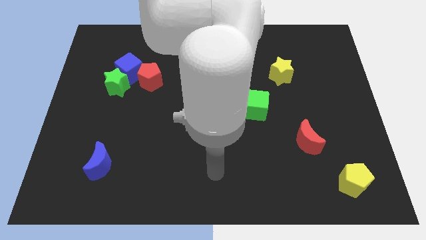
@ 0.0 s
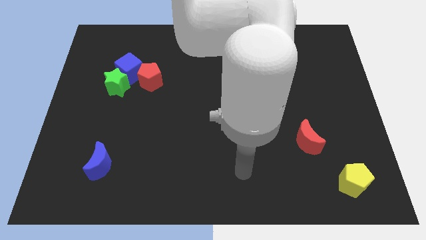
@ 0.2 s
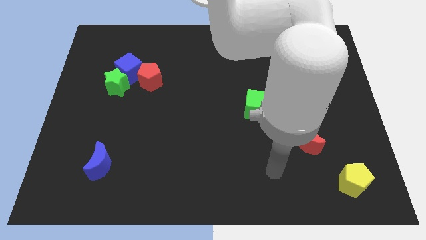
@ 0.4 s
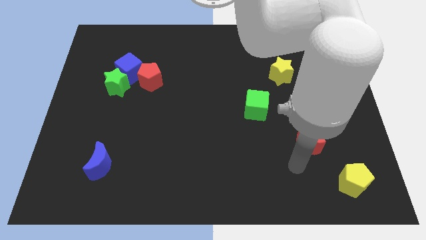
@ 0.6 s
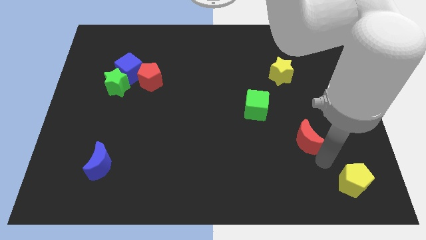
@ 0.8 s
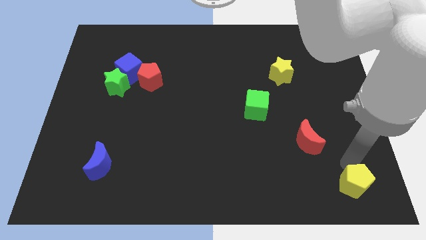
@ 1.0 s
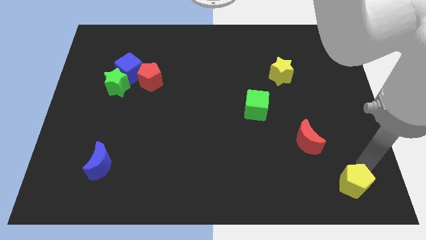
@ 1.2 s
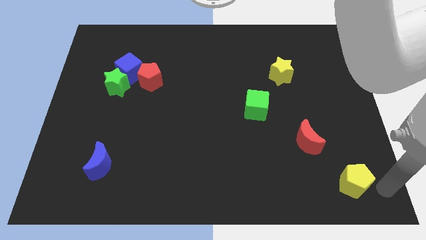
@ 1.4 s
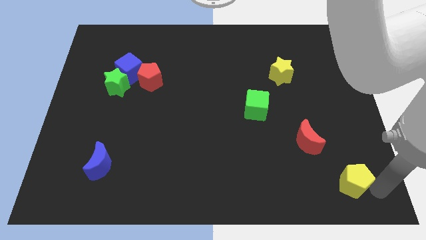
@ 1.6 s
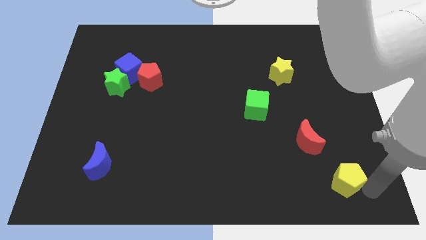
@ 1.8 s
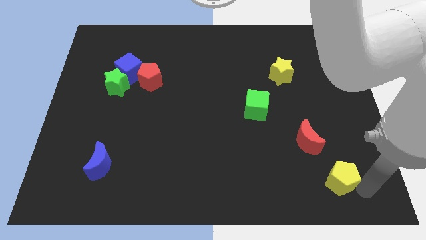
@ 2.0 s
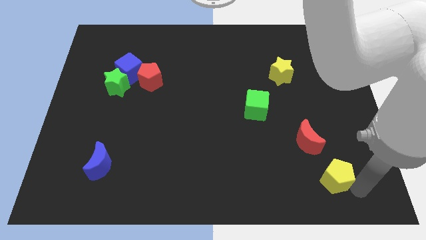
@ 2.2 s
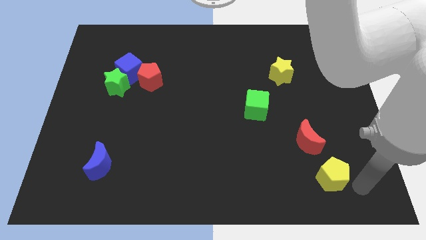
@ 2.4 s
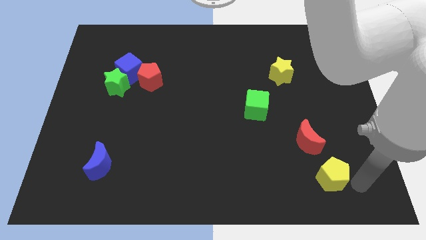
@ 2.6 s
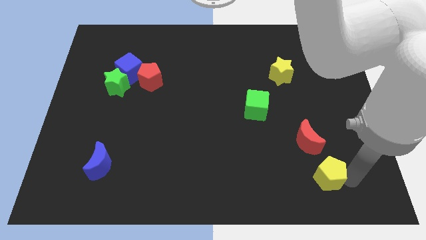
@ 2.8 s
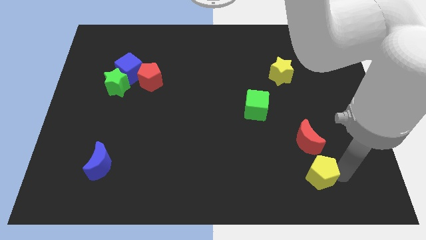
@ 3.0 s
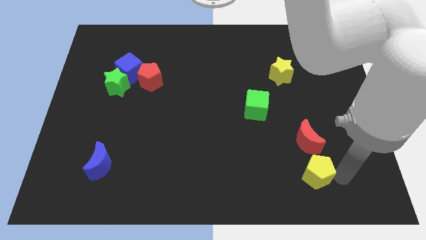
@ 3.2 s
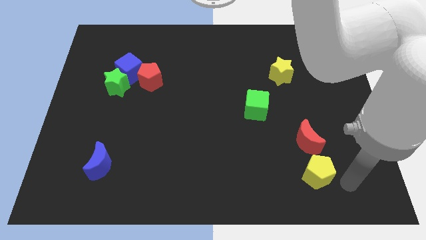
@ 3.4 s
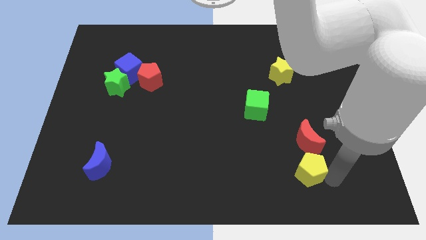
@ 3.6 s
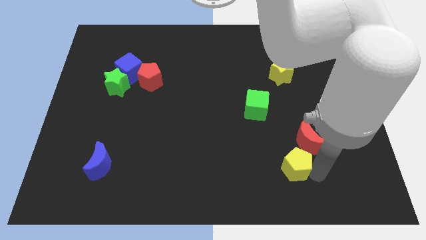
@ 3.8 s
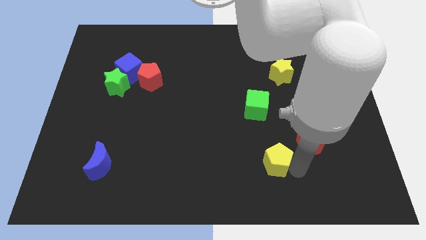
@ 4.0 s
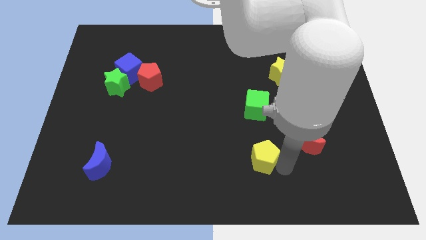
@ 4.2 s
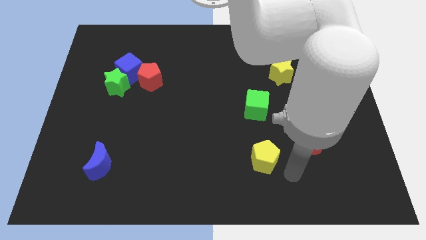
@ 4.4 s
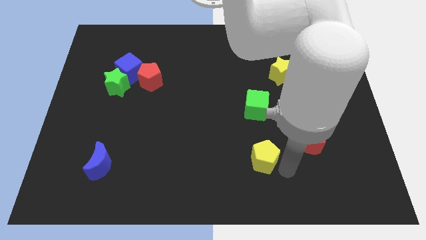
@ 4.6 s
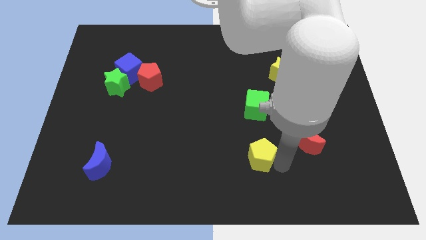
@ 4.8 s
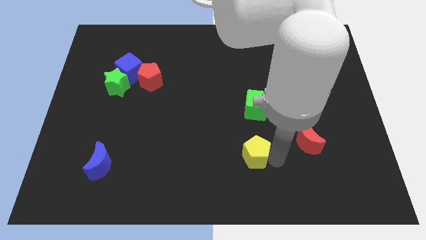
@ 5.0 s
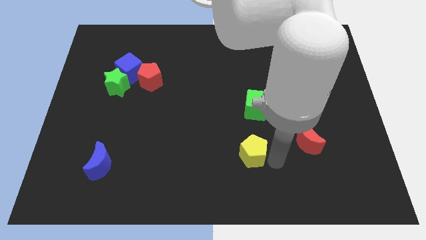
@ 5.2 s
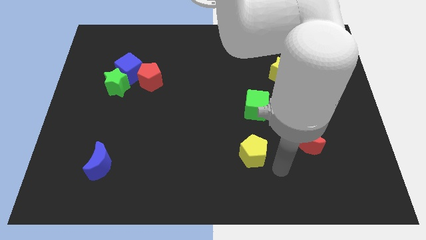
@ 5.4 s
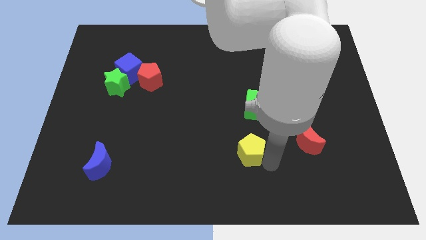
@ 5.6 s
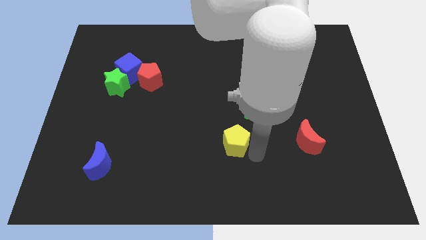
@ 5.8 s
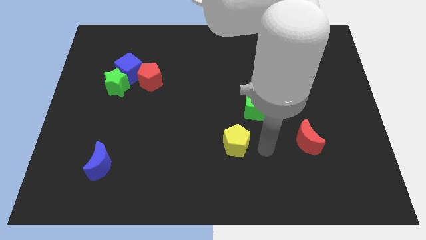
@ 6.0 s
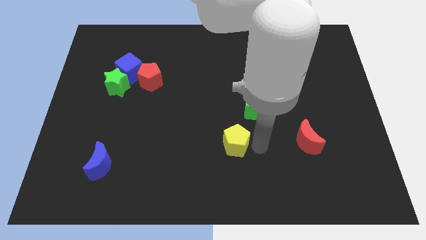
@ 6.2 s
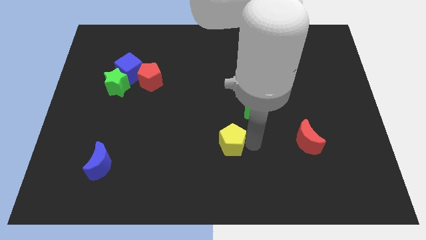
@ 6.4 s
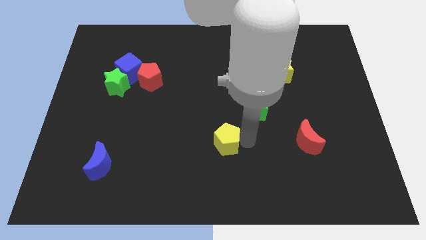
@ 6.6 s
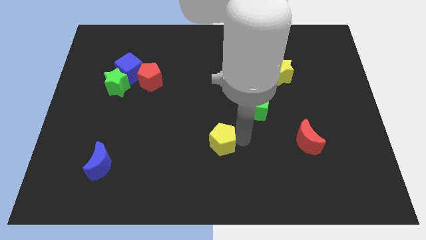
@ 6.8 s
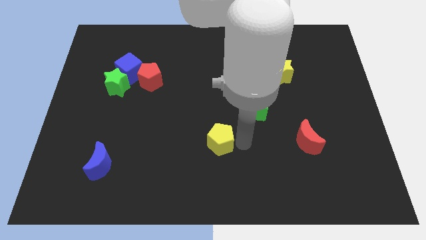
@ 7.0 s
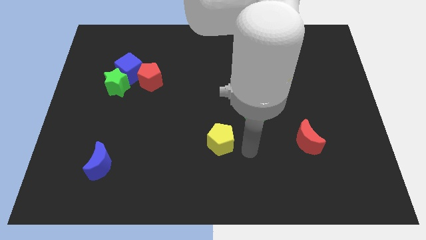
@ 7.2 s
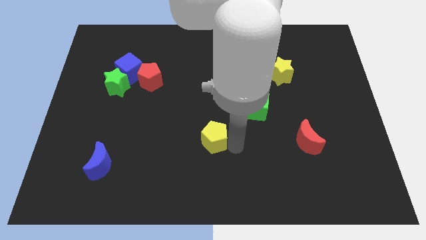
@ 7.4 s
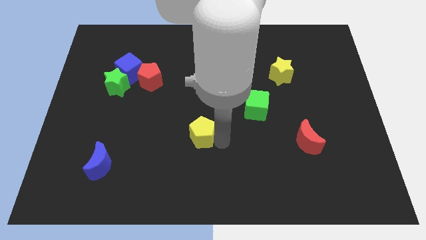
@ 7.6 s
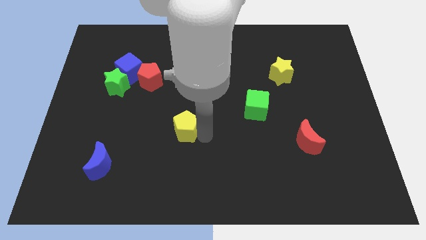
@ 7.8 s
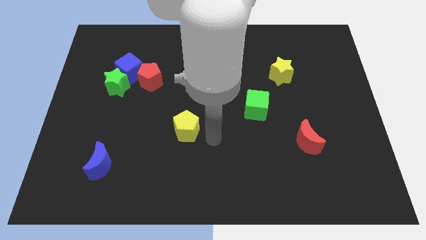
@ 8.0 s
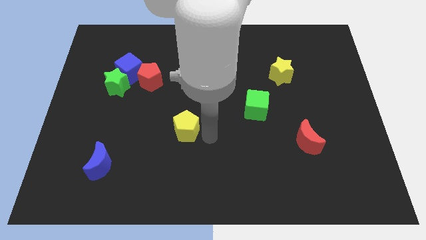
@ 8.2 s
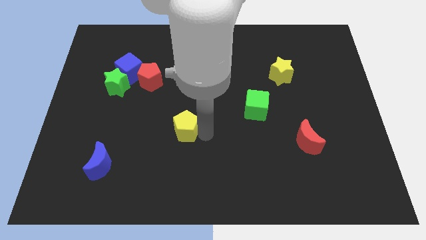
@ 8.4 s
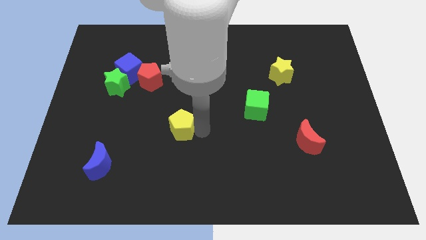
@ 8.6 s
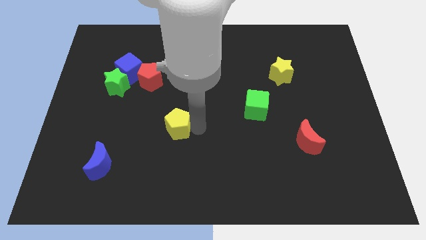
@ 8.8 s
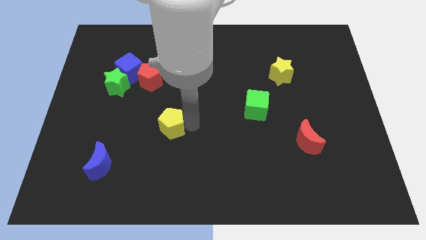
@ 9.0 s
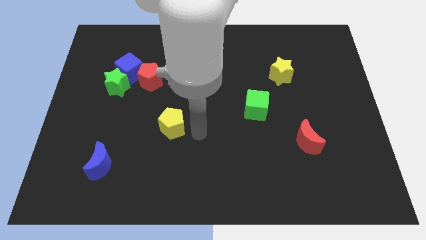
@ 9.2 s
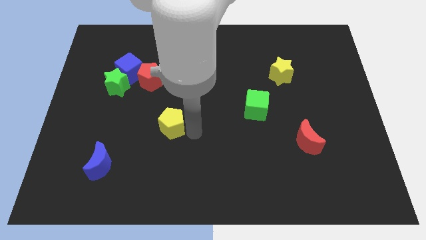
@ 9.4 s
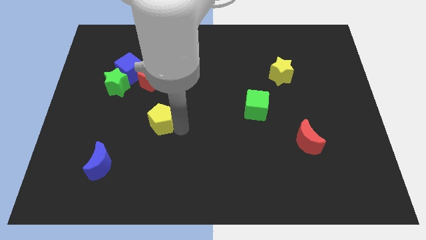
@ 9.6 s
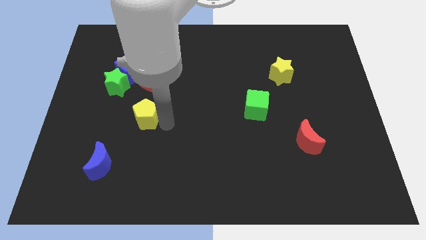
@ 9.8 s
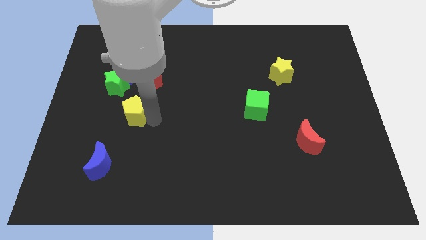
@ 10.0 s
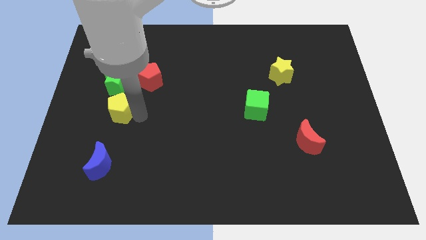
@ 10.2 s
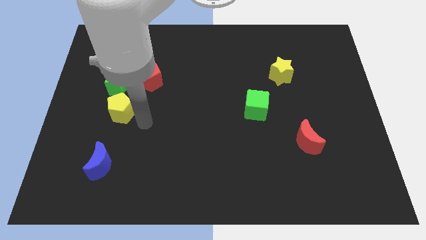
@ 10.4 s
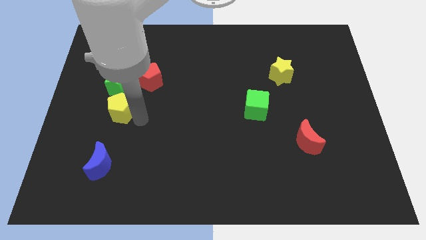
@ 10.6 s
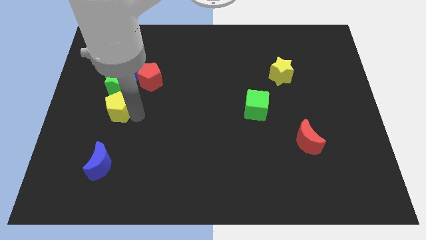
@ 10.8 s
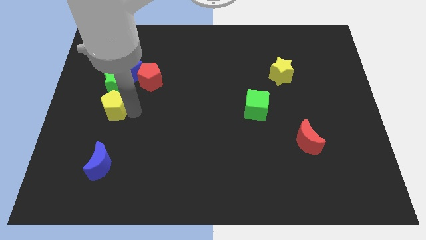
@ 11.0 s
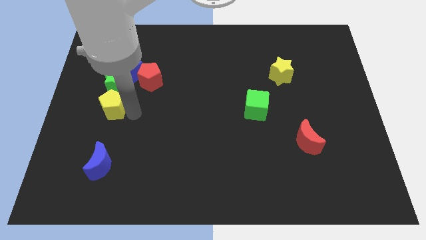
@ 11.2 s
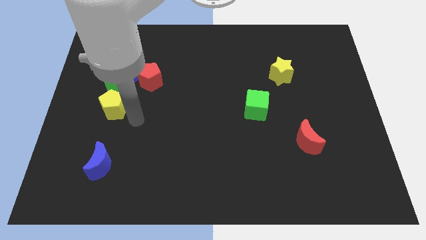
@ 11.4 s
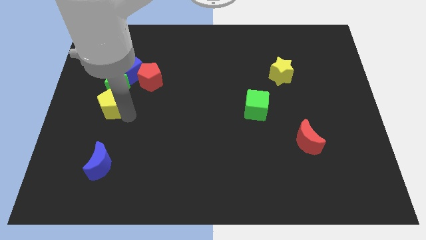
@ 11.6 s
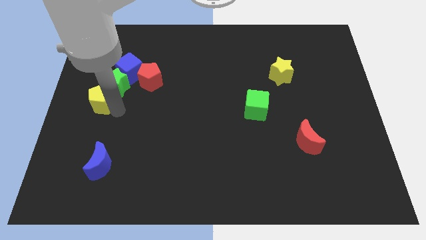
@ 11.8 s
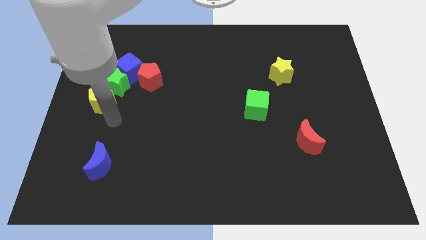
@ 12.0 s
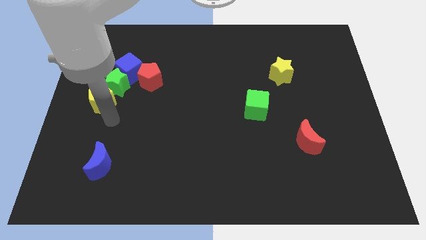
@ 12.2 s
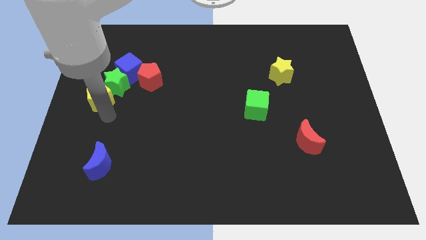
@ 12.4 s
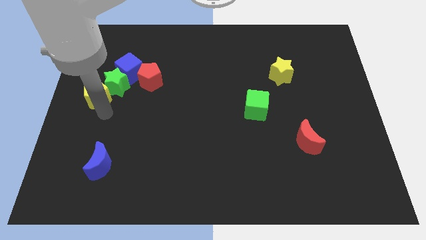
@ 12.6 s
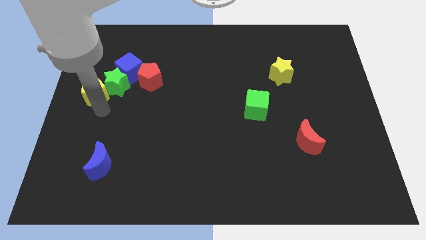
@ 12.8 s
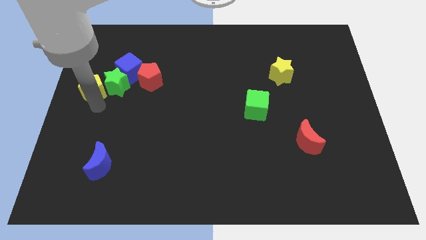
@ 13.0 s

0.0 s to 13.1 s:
push the yellow pentagon to the top left side of the green star

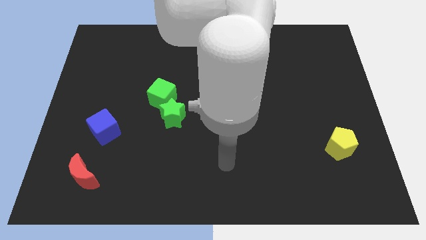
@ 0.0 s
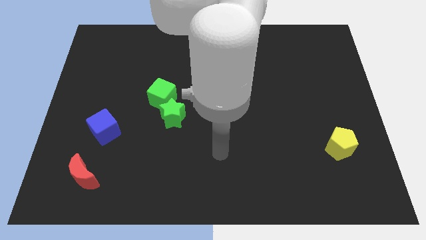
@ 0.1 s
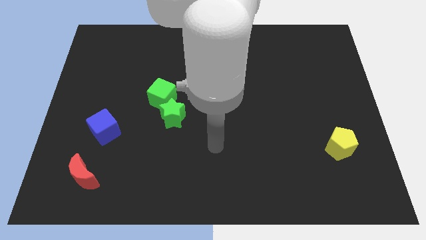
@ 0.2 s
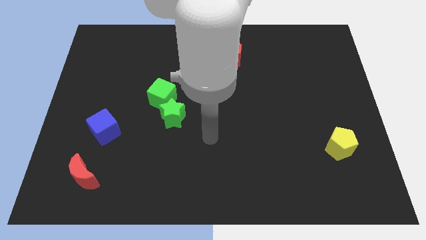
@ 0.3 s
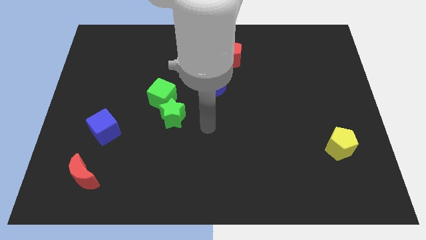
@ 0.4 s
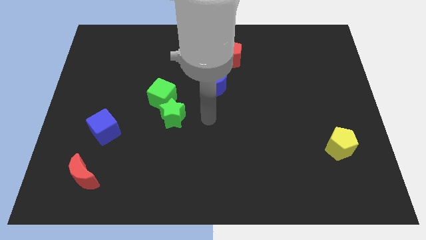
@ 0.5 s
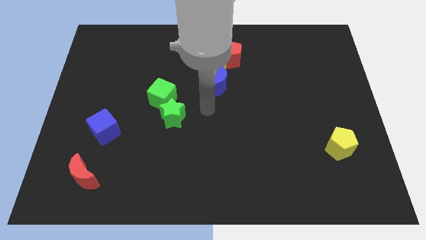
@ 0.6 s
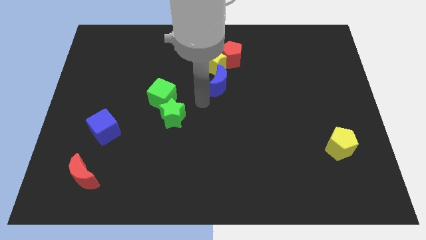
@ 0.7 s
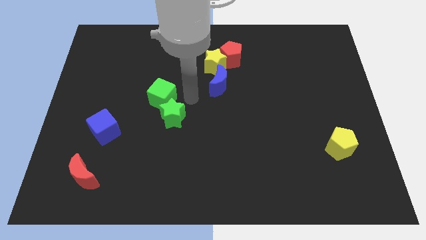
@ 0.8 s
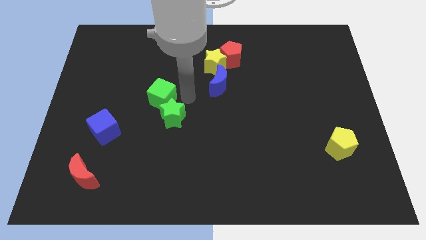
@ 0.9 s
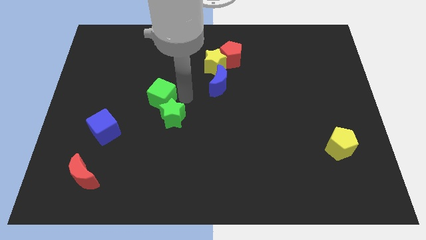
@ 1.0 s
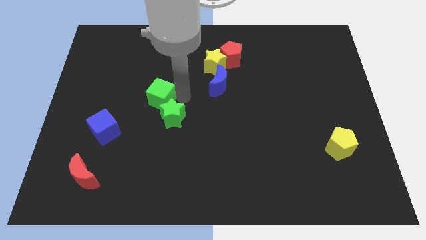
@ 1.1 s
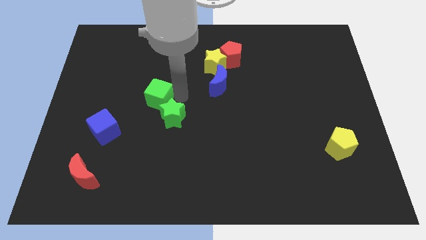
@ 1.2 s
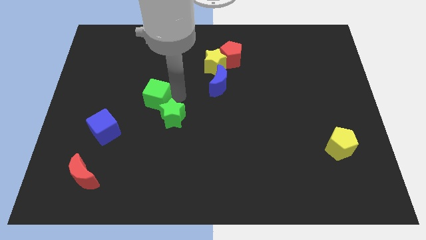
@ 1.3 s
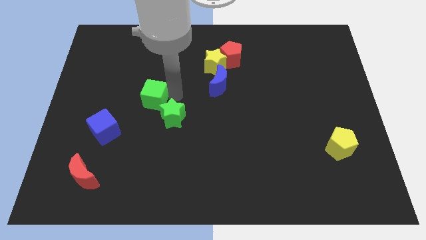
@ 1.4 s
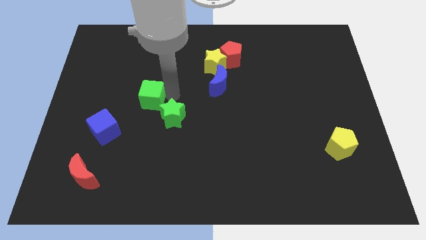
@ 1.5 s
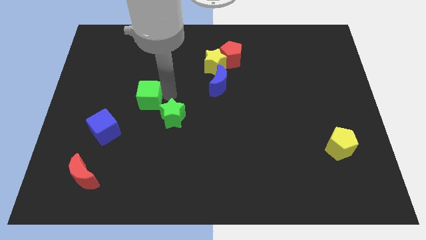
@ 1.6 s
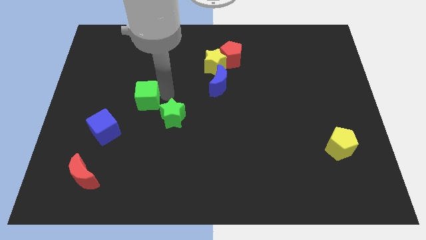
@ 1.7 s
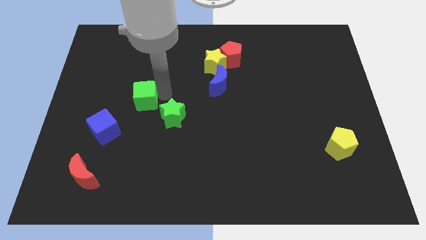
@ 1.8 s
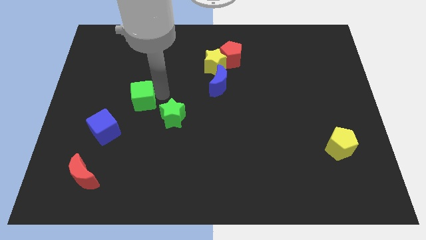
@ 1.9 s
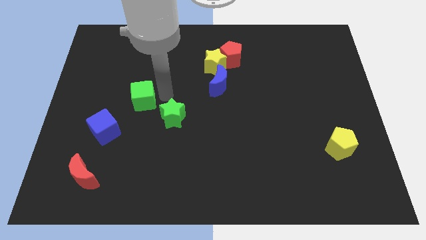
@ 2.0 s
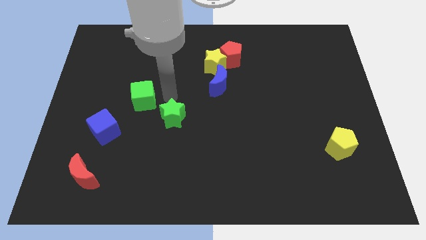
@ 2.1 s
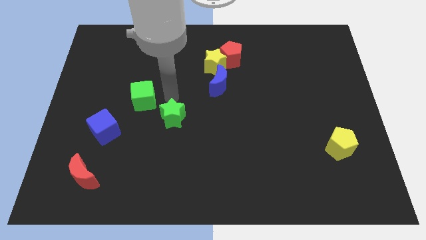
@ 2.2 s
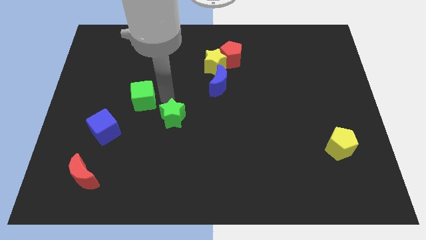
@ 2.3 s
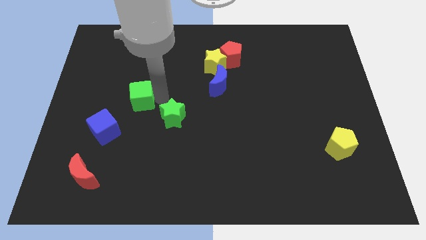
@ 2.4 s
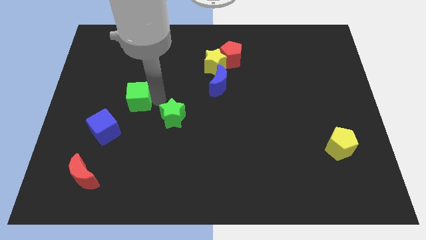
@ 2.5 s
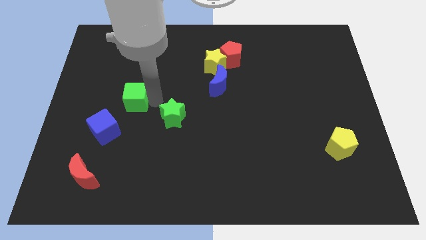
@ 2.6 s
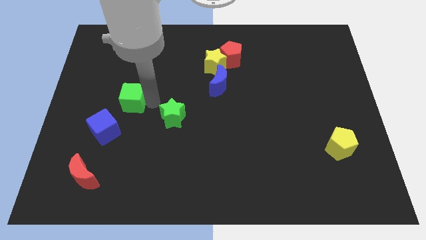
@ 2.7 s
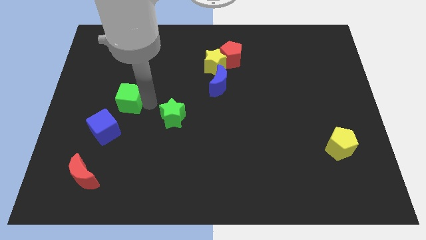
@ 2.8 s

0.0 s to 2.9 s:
slide the green cube above the blue cube
